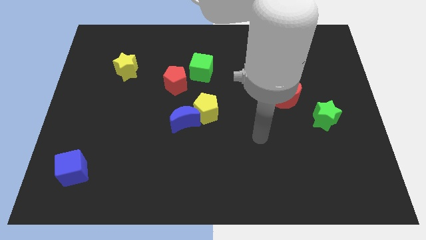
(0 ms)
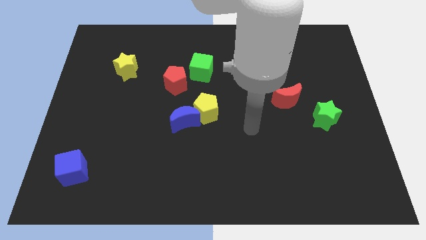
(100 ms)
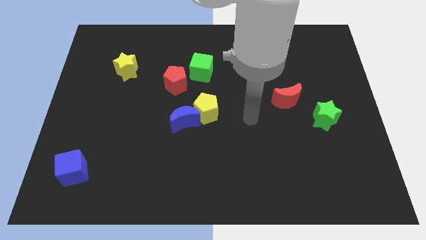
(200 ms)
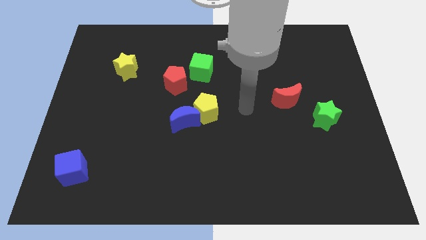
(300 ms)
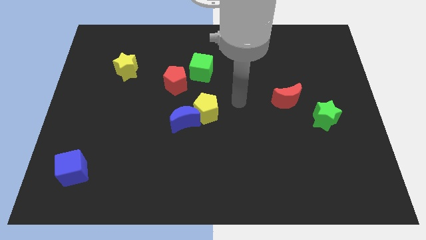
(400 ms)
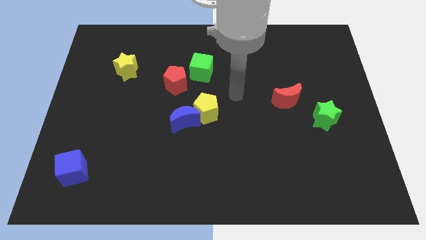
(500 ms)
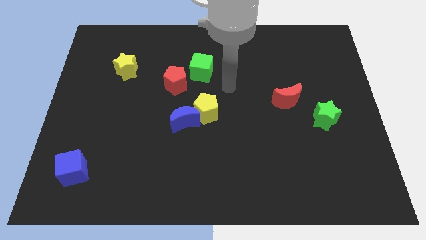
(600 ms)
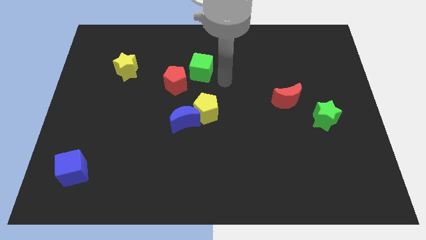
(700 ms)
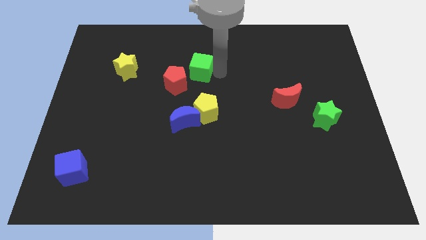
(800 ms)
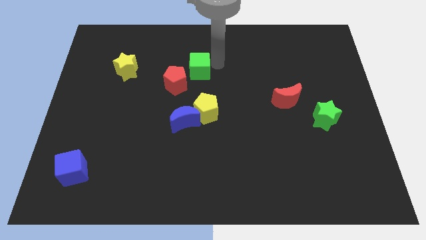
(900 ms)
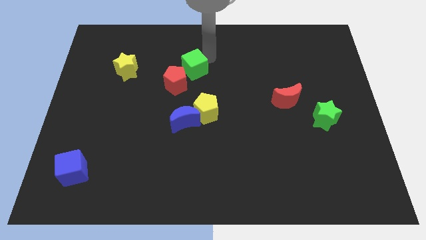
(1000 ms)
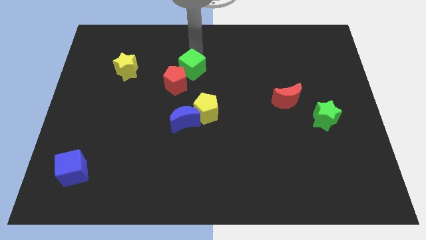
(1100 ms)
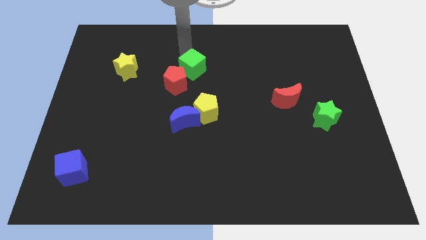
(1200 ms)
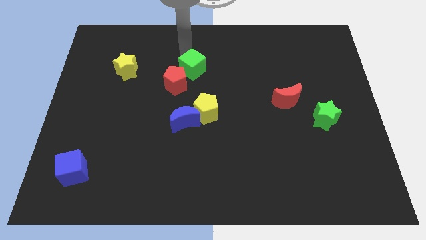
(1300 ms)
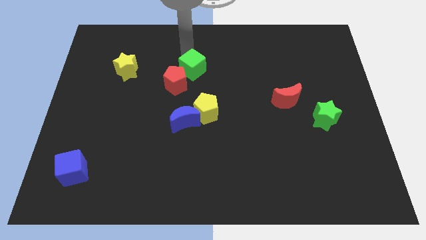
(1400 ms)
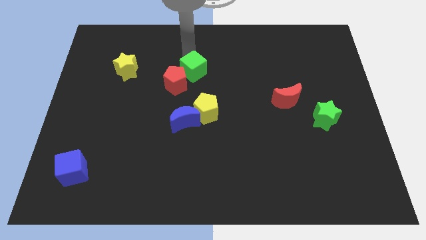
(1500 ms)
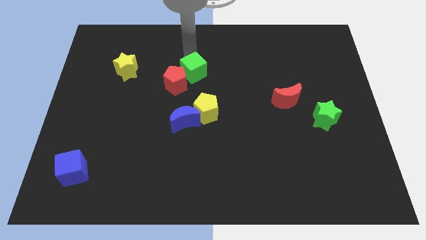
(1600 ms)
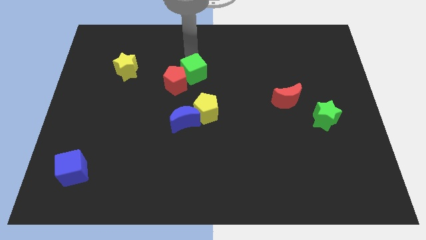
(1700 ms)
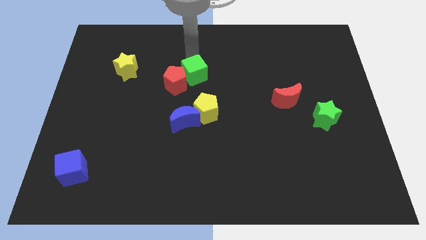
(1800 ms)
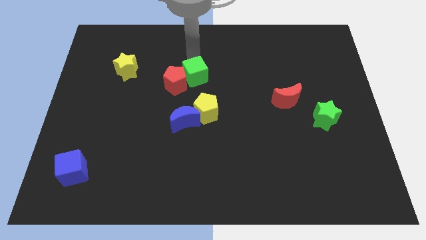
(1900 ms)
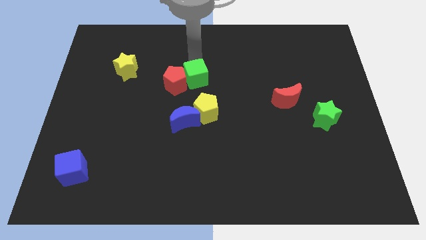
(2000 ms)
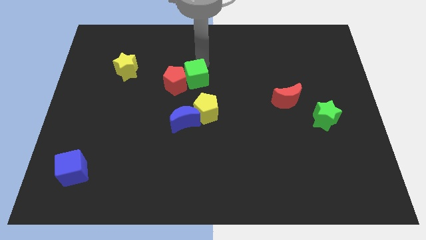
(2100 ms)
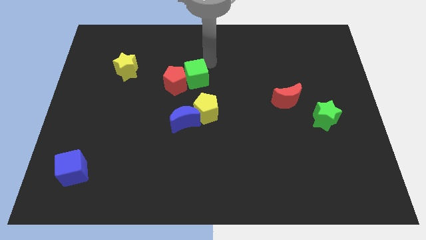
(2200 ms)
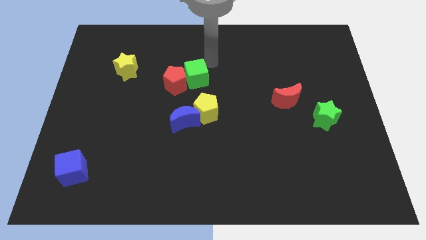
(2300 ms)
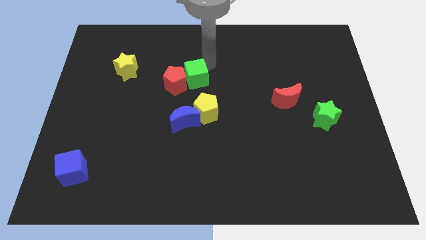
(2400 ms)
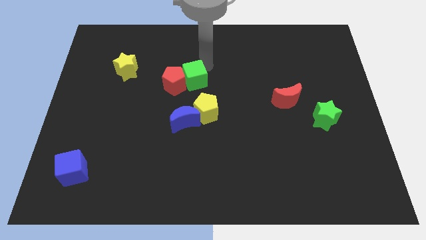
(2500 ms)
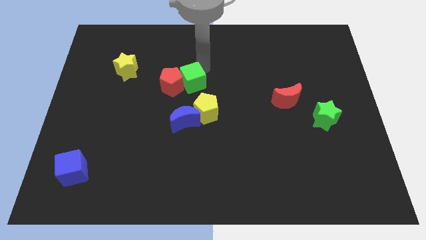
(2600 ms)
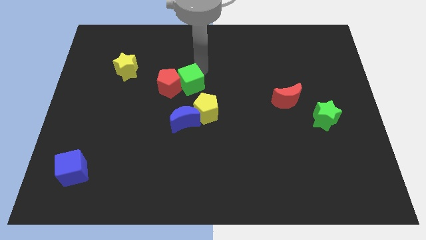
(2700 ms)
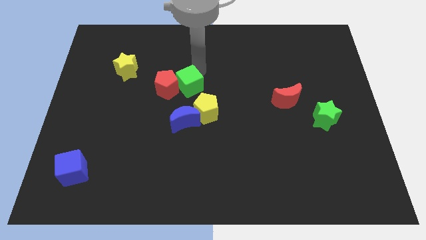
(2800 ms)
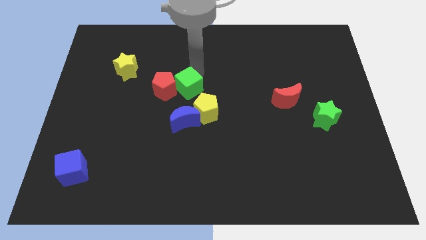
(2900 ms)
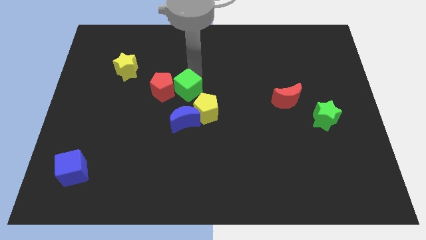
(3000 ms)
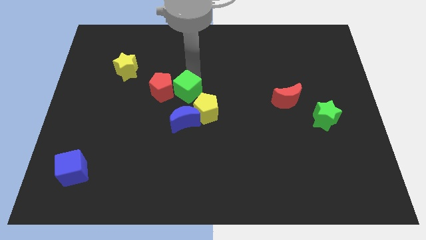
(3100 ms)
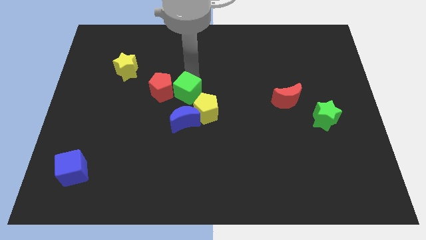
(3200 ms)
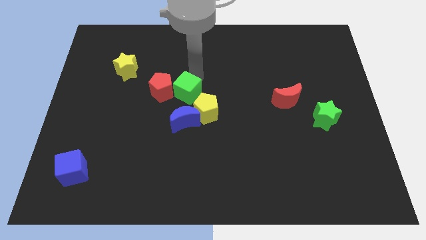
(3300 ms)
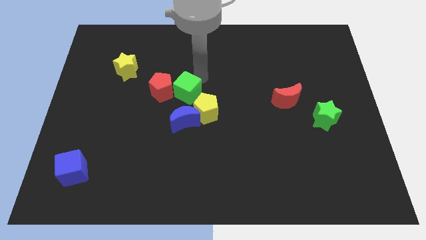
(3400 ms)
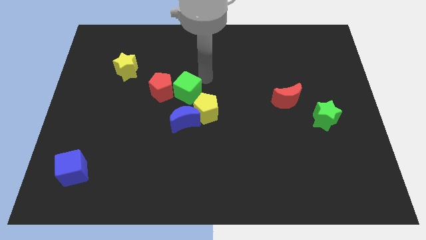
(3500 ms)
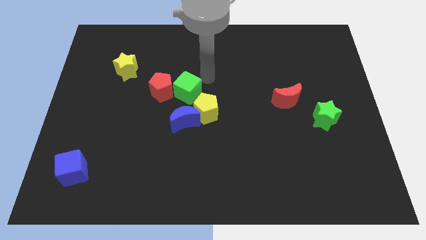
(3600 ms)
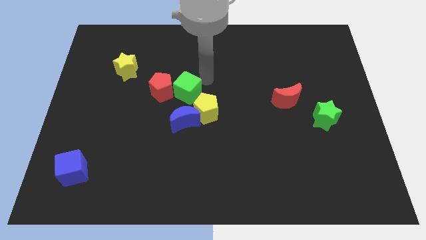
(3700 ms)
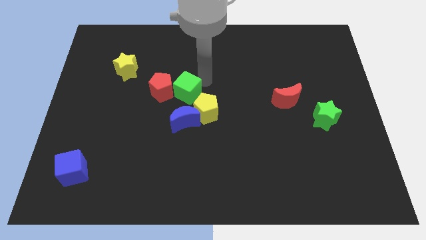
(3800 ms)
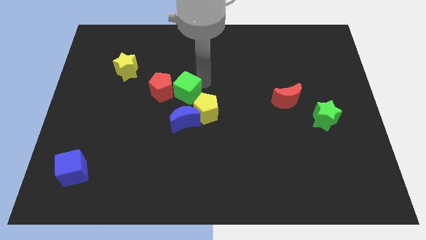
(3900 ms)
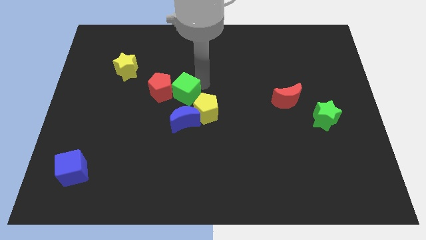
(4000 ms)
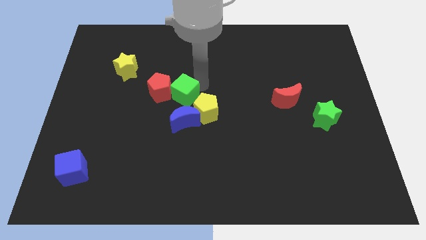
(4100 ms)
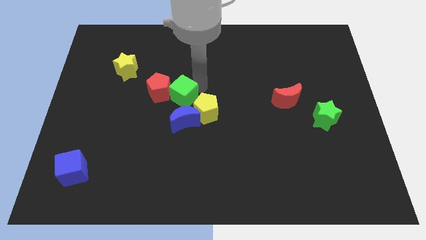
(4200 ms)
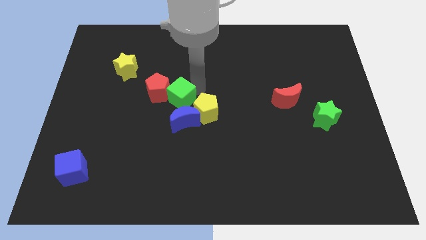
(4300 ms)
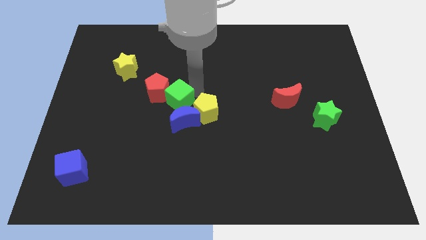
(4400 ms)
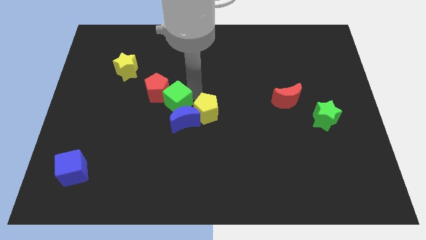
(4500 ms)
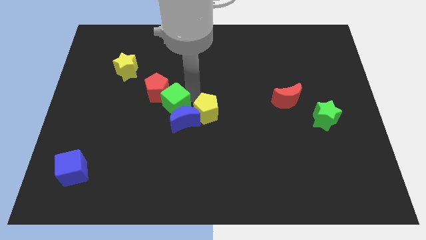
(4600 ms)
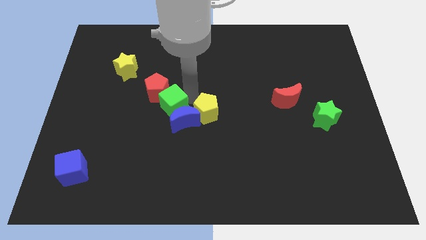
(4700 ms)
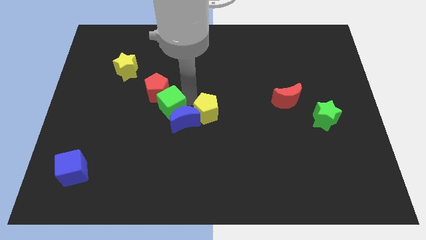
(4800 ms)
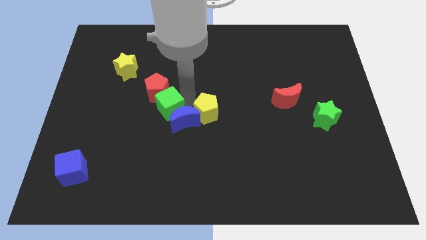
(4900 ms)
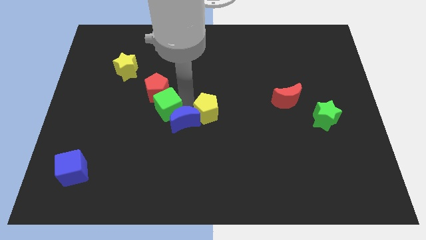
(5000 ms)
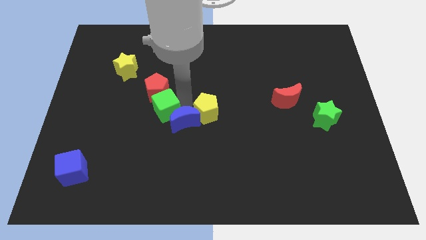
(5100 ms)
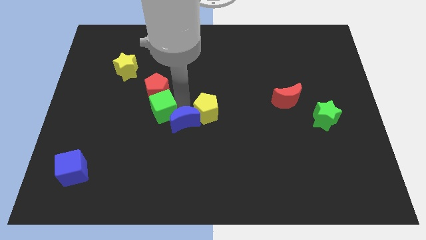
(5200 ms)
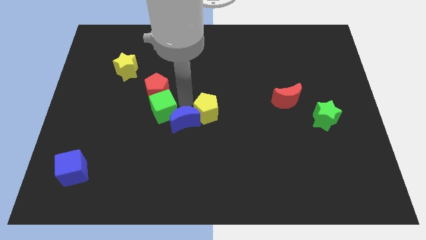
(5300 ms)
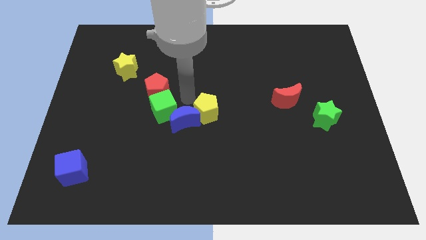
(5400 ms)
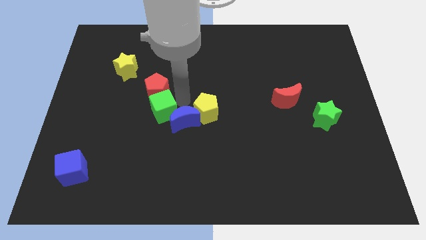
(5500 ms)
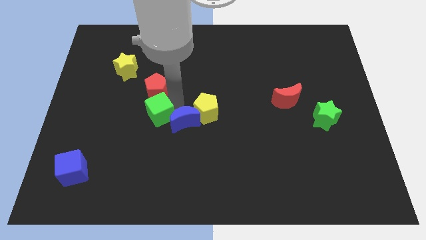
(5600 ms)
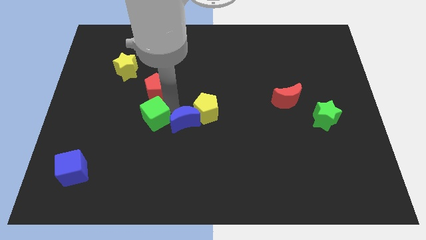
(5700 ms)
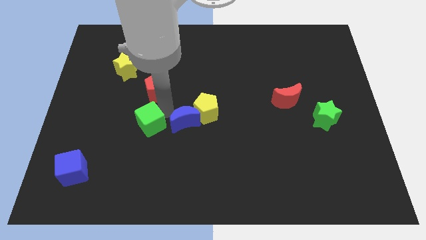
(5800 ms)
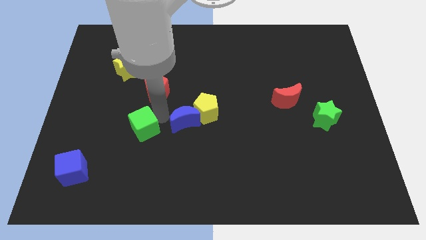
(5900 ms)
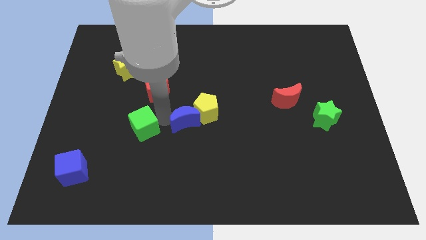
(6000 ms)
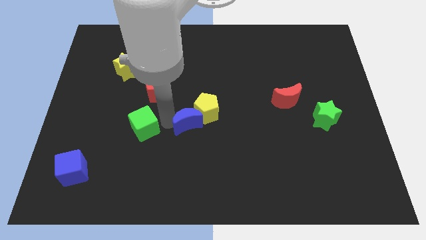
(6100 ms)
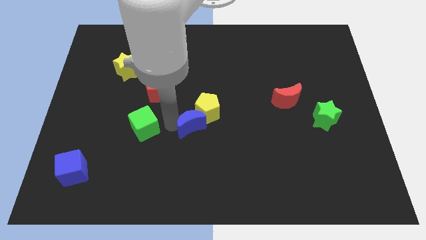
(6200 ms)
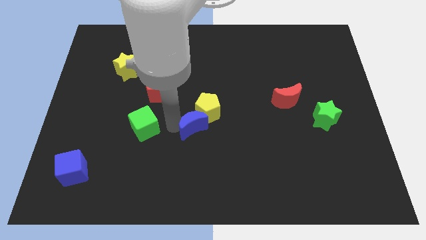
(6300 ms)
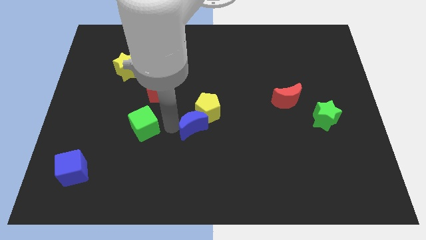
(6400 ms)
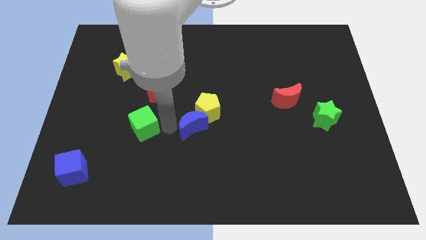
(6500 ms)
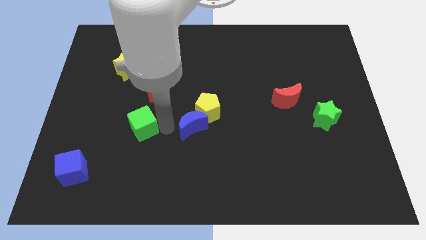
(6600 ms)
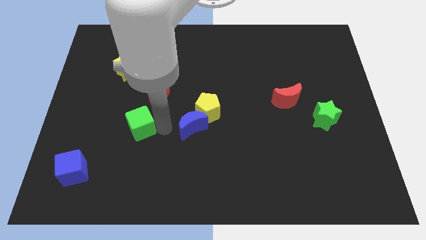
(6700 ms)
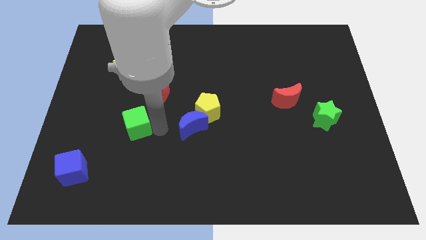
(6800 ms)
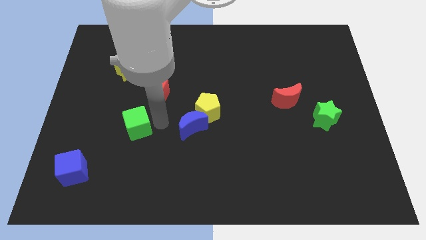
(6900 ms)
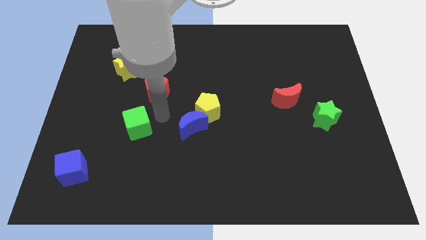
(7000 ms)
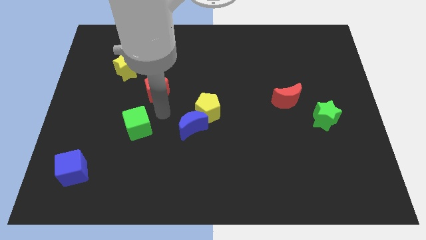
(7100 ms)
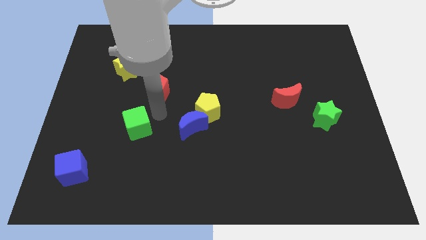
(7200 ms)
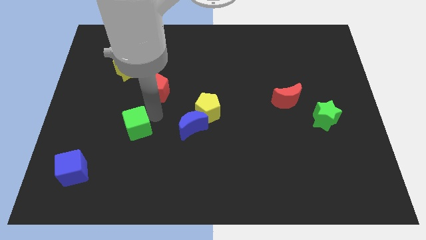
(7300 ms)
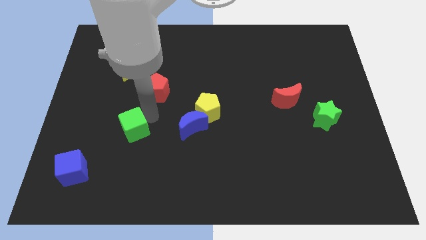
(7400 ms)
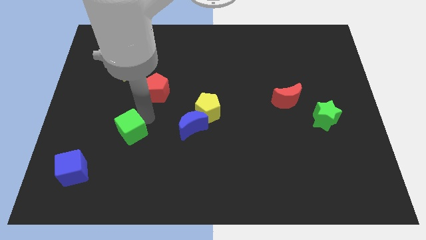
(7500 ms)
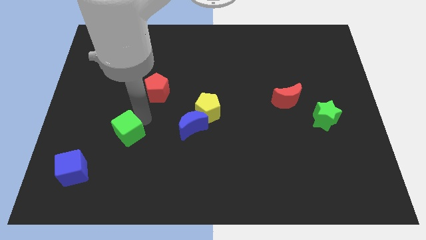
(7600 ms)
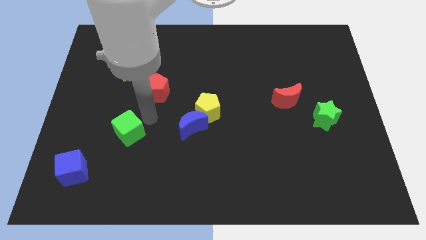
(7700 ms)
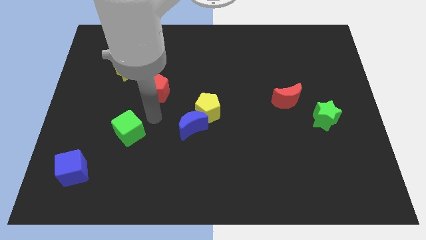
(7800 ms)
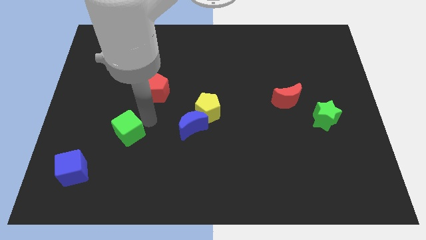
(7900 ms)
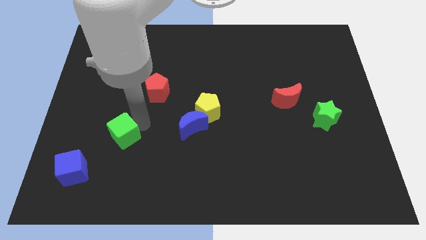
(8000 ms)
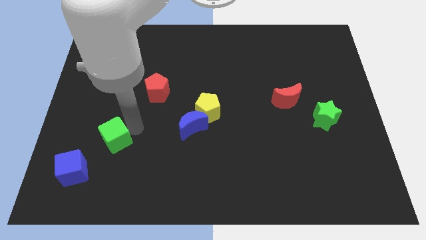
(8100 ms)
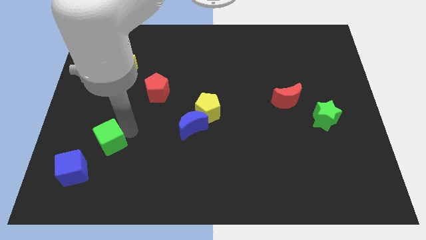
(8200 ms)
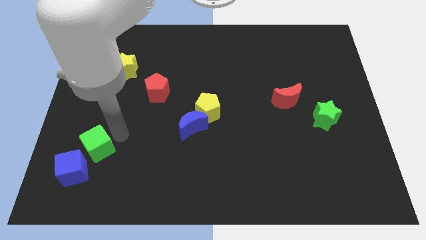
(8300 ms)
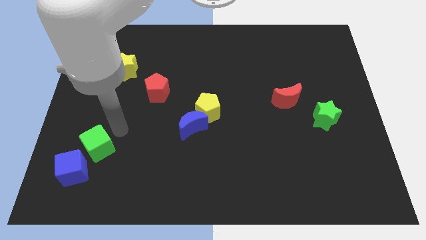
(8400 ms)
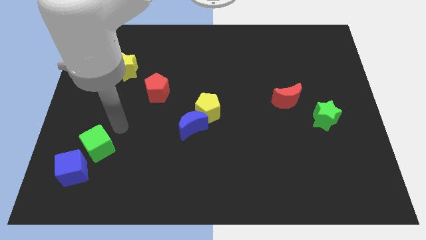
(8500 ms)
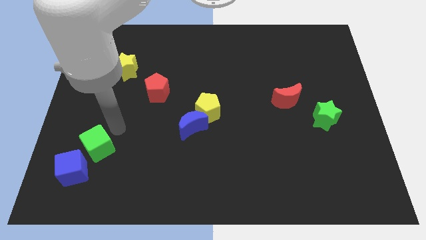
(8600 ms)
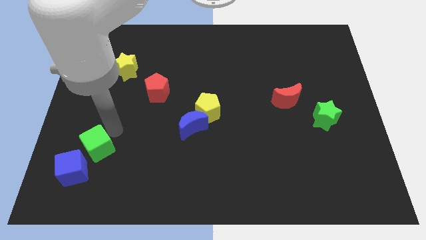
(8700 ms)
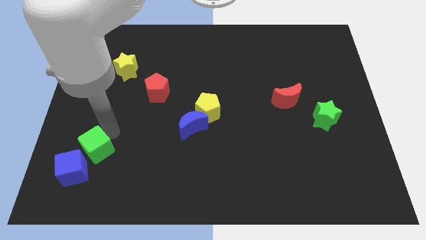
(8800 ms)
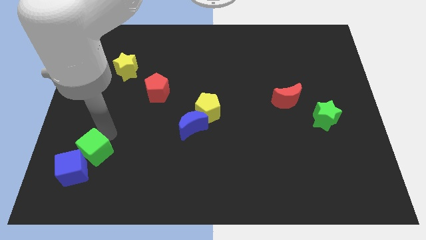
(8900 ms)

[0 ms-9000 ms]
push the green cube next to the blue cube
